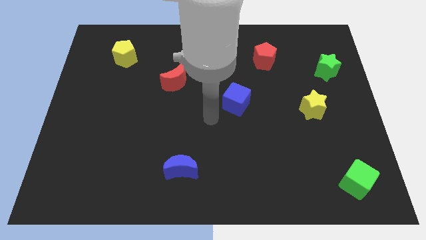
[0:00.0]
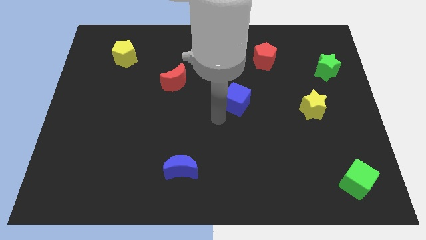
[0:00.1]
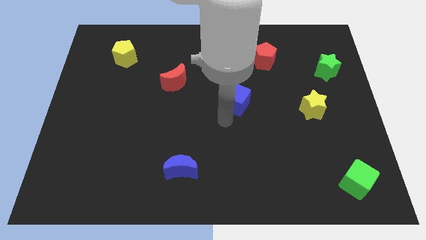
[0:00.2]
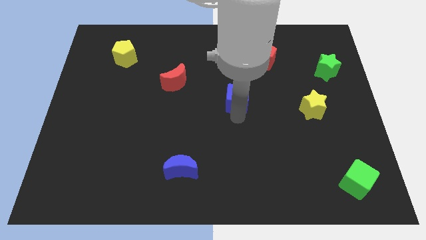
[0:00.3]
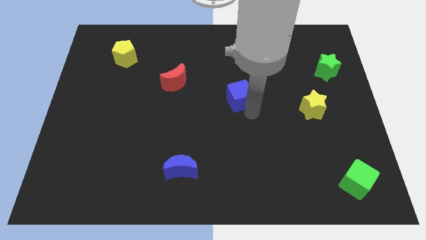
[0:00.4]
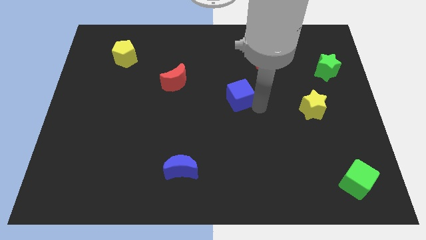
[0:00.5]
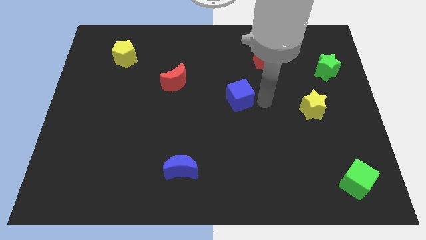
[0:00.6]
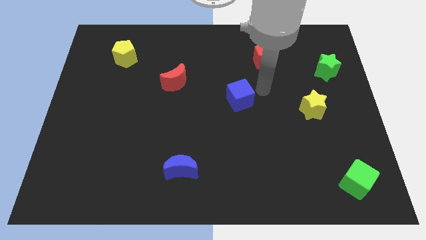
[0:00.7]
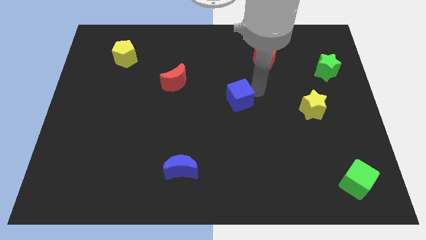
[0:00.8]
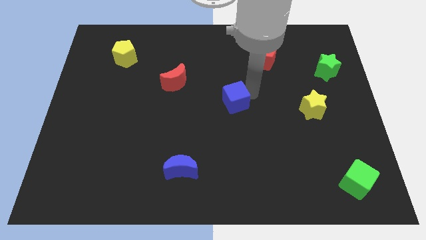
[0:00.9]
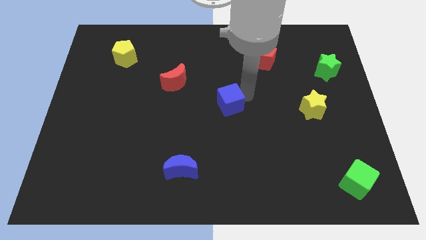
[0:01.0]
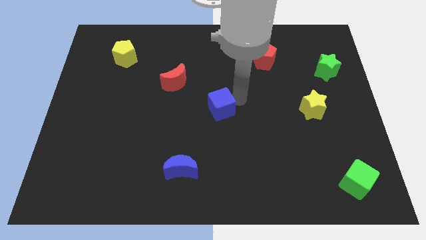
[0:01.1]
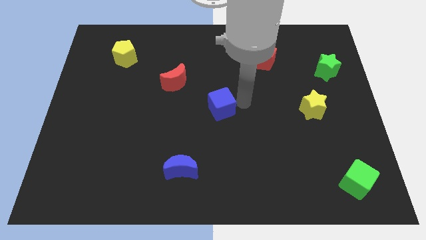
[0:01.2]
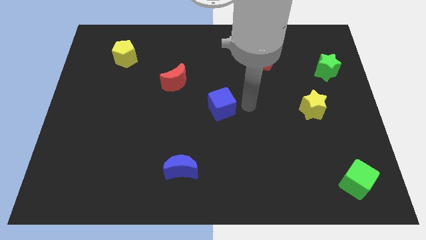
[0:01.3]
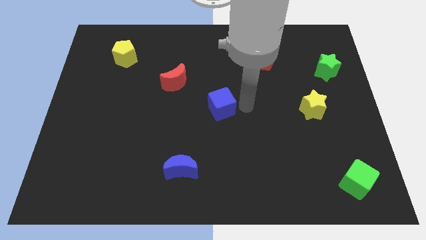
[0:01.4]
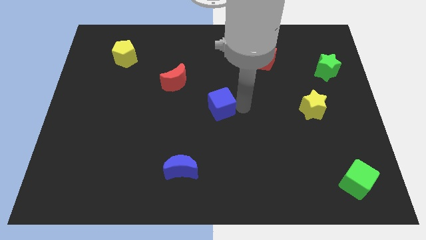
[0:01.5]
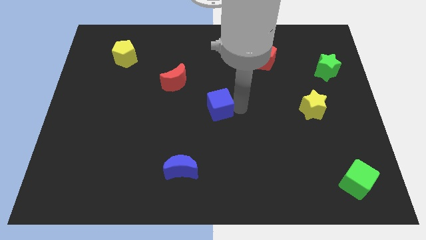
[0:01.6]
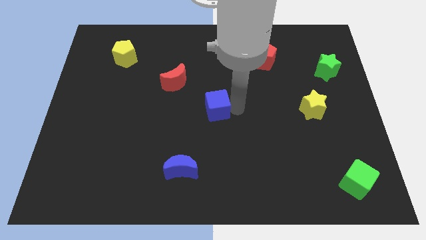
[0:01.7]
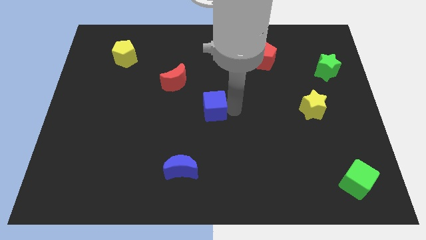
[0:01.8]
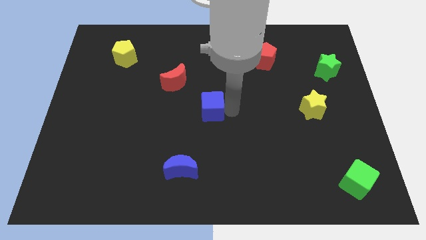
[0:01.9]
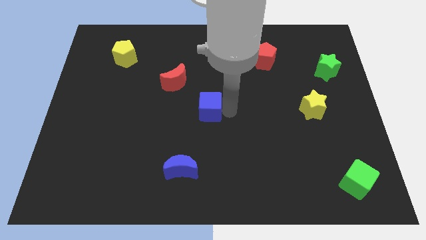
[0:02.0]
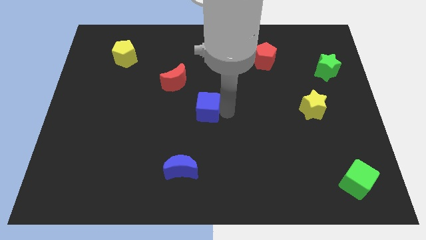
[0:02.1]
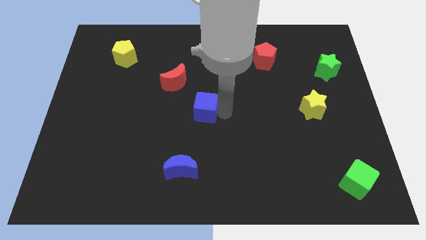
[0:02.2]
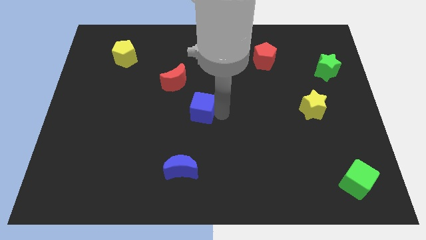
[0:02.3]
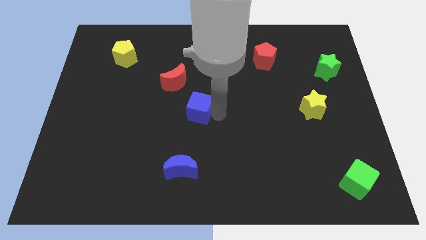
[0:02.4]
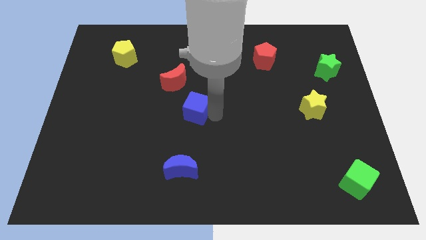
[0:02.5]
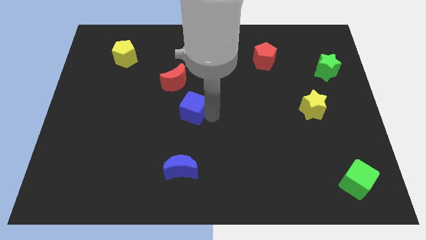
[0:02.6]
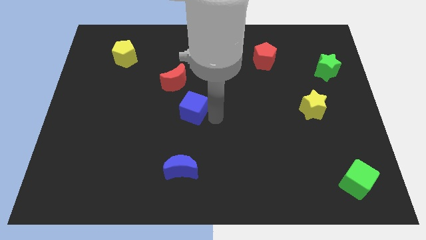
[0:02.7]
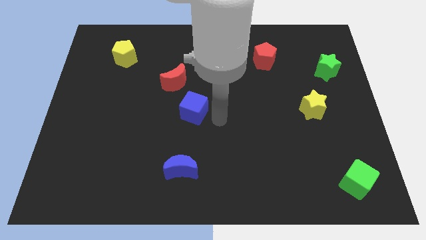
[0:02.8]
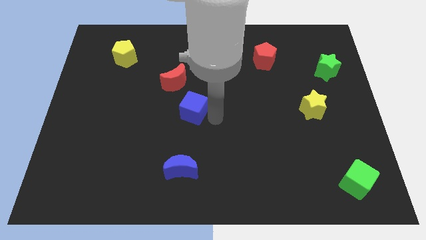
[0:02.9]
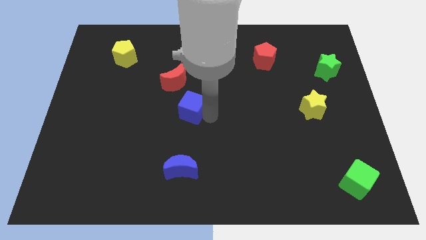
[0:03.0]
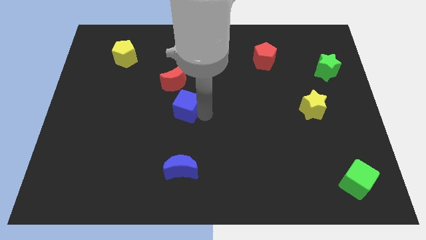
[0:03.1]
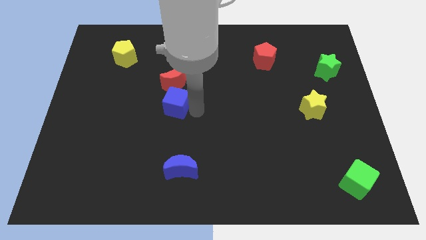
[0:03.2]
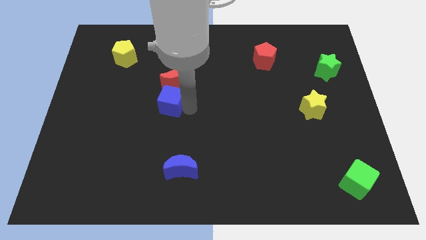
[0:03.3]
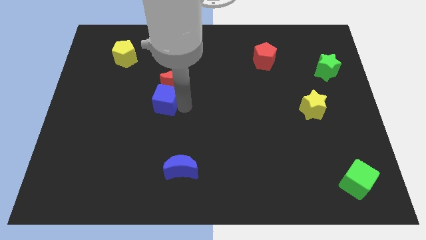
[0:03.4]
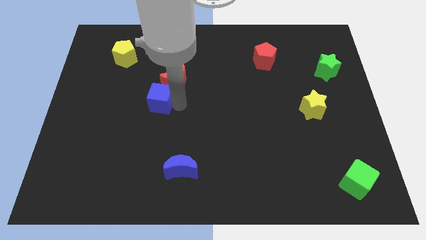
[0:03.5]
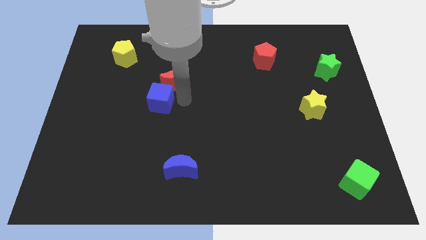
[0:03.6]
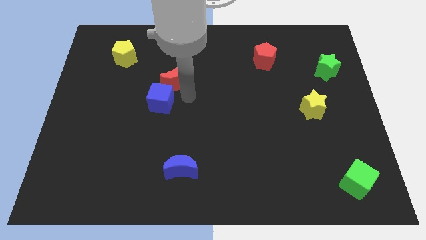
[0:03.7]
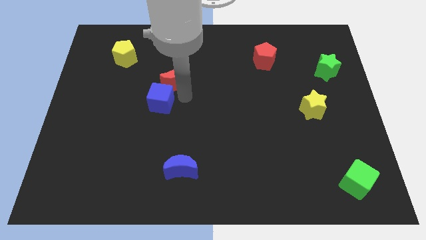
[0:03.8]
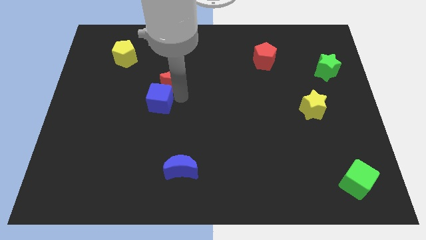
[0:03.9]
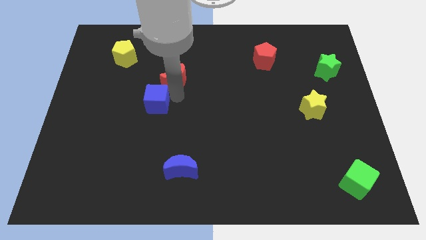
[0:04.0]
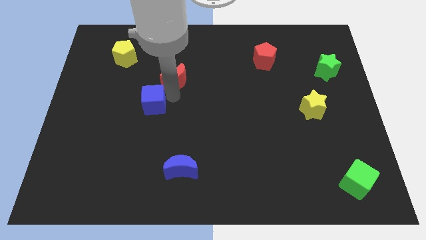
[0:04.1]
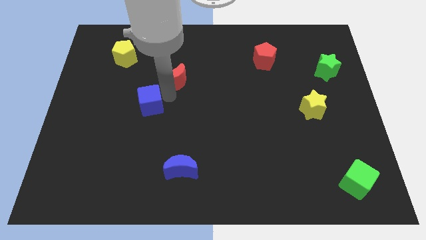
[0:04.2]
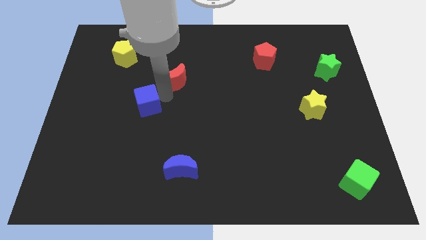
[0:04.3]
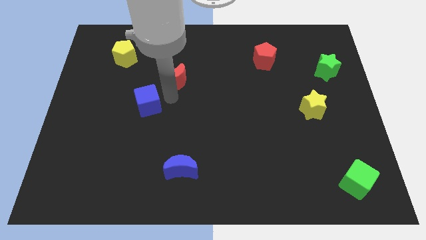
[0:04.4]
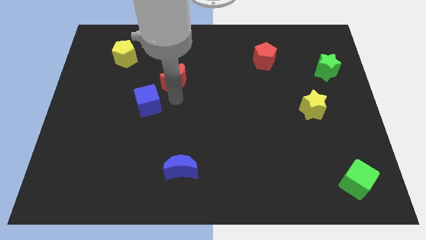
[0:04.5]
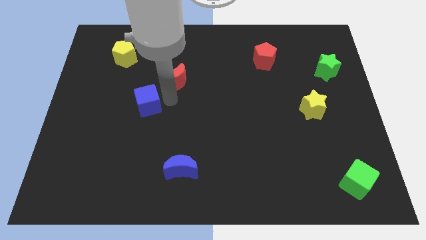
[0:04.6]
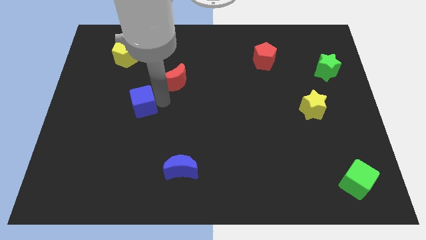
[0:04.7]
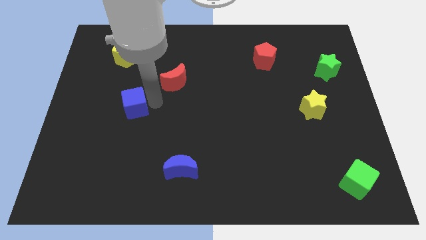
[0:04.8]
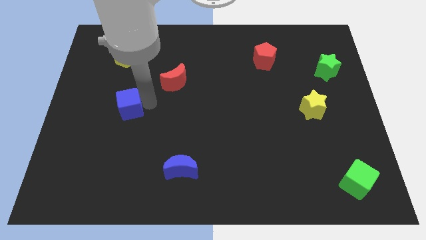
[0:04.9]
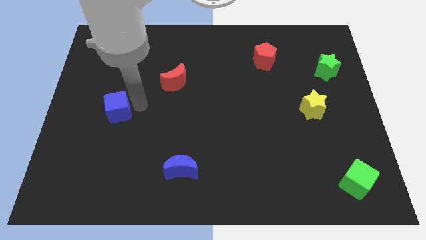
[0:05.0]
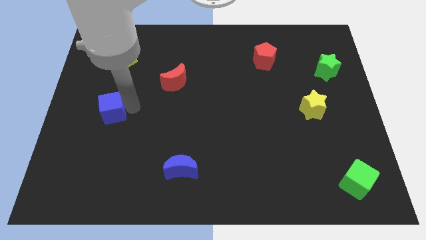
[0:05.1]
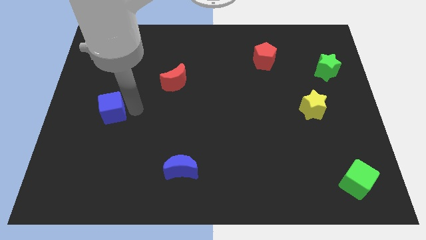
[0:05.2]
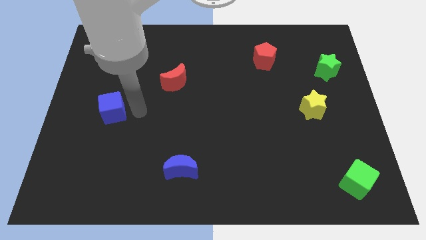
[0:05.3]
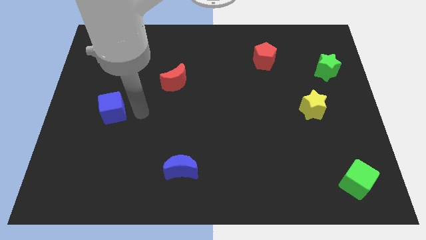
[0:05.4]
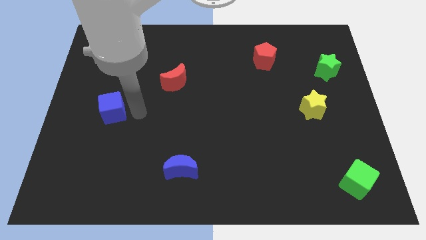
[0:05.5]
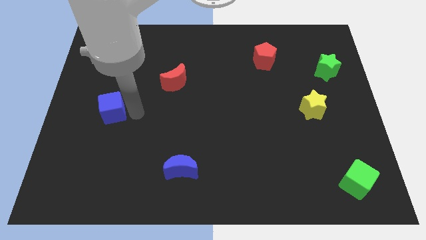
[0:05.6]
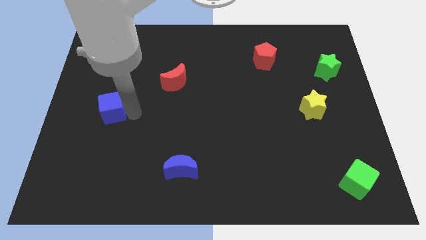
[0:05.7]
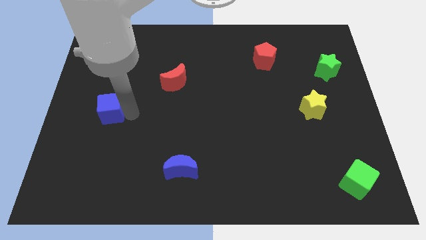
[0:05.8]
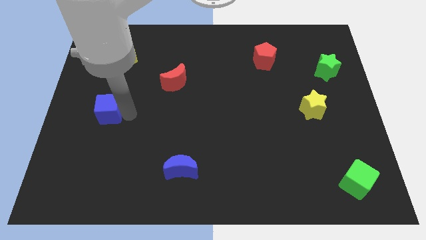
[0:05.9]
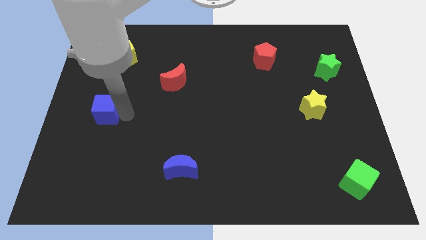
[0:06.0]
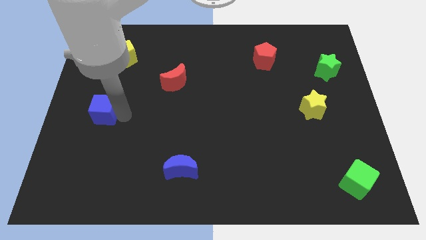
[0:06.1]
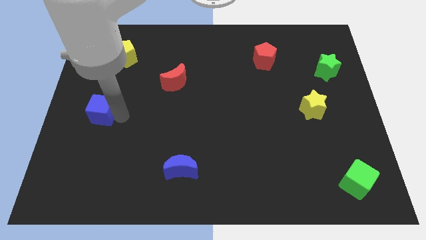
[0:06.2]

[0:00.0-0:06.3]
push the blue cube to the center left
